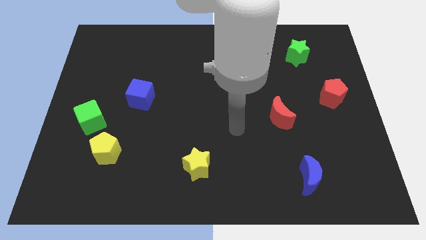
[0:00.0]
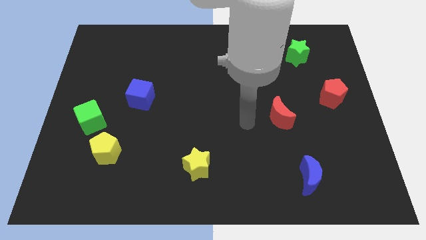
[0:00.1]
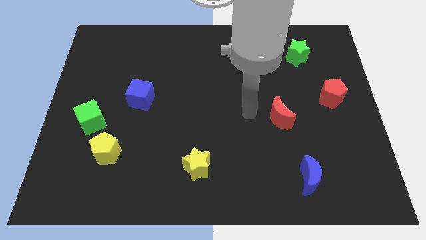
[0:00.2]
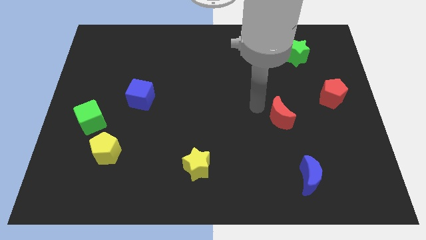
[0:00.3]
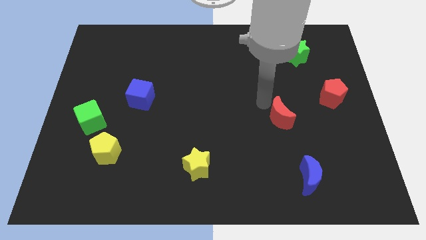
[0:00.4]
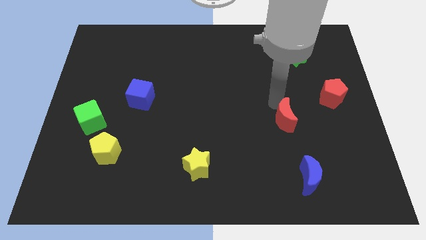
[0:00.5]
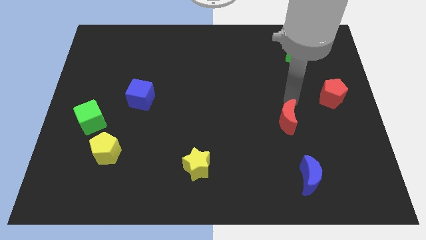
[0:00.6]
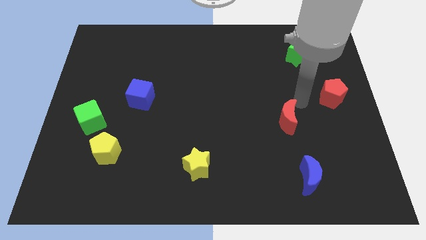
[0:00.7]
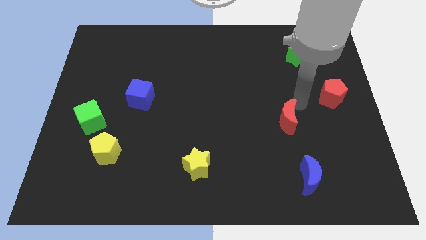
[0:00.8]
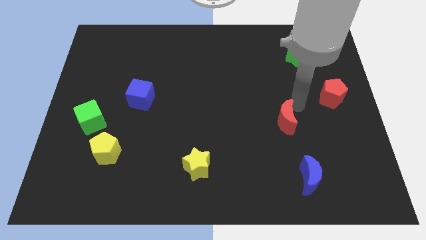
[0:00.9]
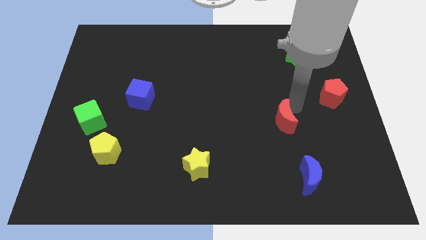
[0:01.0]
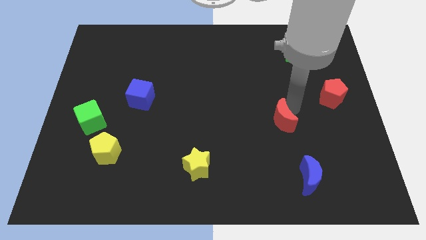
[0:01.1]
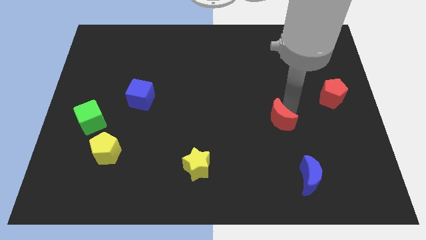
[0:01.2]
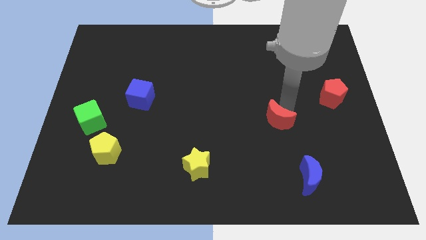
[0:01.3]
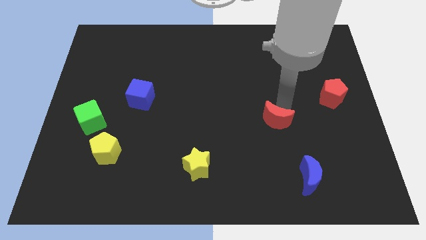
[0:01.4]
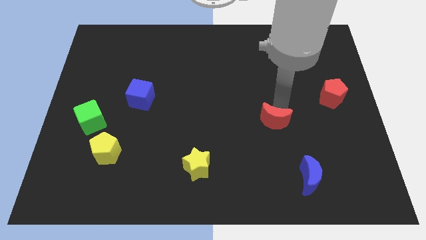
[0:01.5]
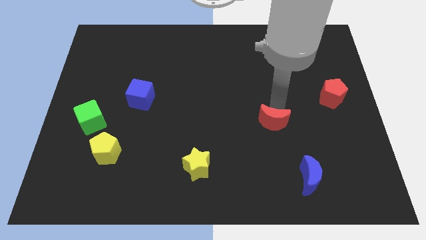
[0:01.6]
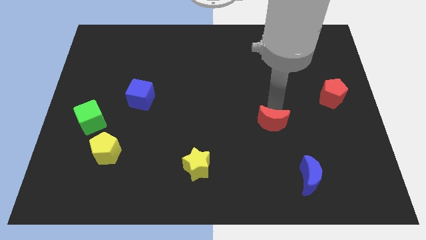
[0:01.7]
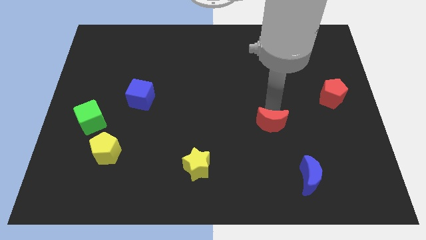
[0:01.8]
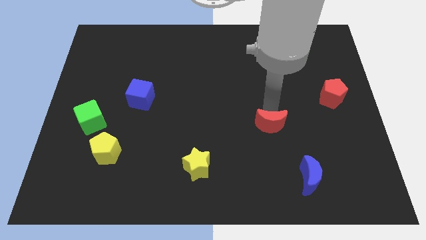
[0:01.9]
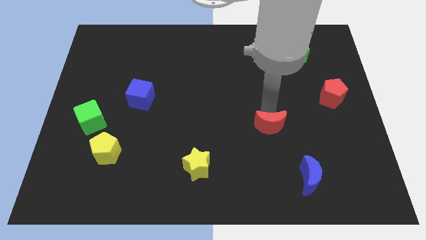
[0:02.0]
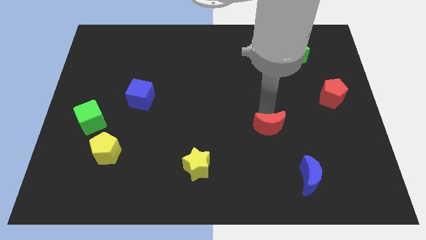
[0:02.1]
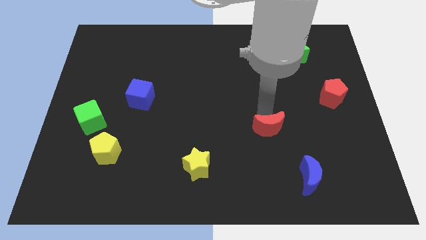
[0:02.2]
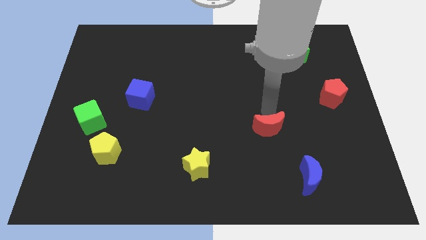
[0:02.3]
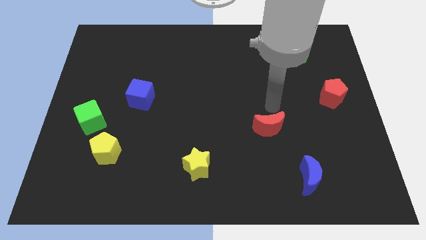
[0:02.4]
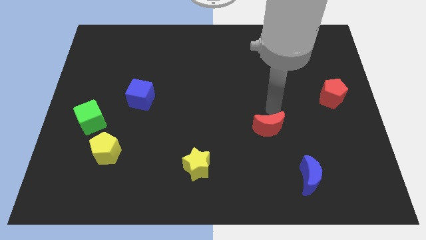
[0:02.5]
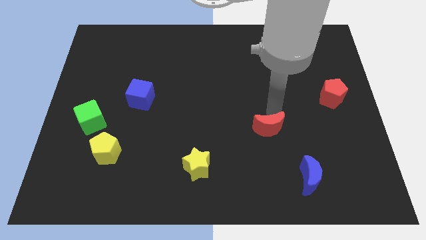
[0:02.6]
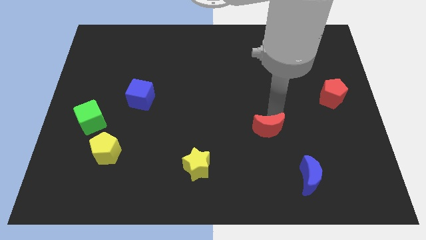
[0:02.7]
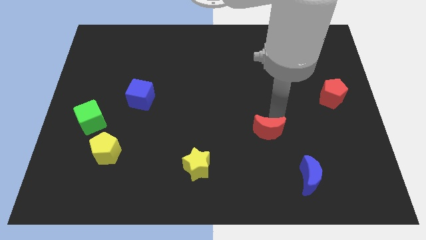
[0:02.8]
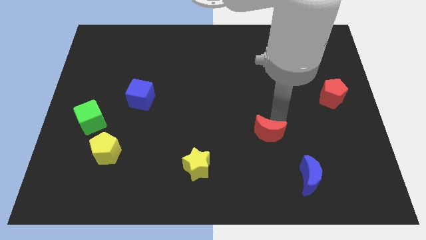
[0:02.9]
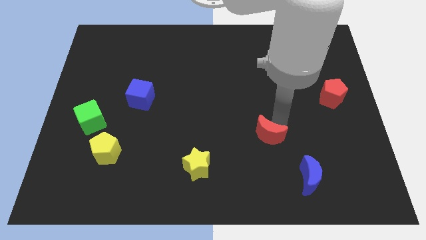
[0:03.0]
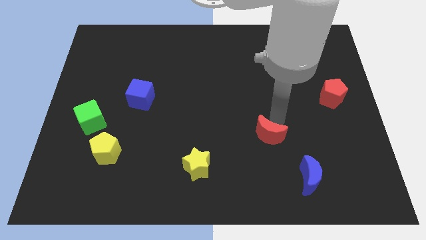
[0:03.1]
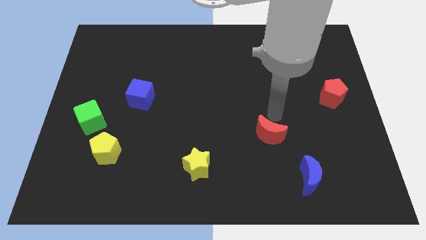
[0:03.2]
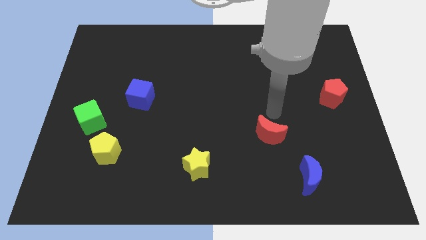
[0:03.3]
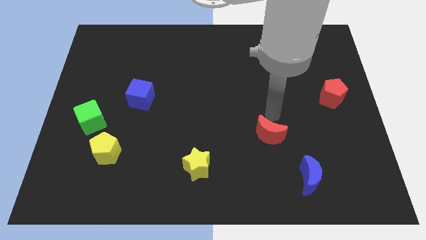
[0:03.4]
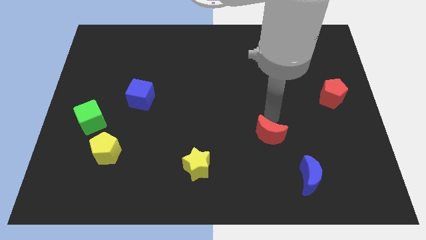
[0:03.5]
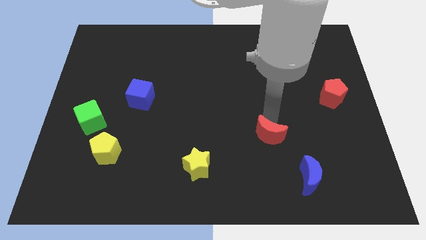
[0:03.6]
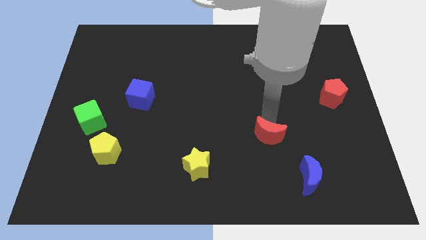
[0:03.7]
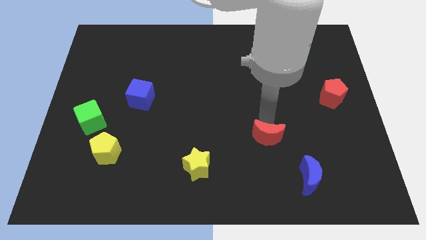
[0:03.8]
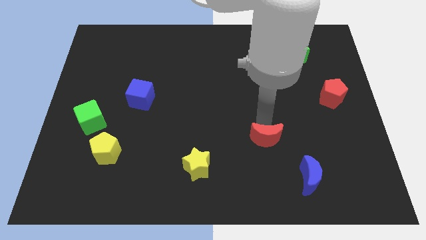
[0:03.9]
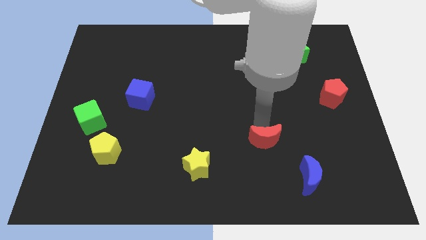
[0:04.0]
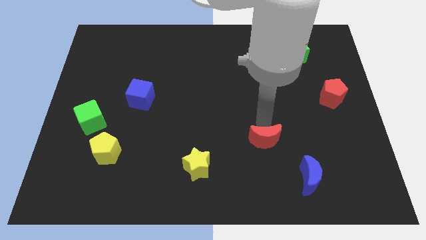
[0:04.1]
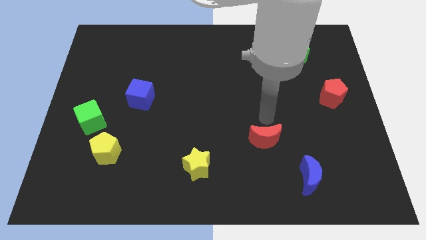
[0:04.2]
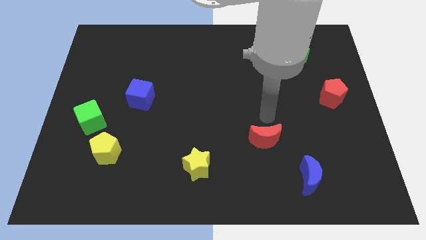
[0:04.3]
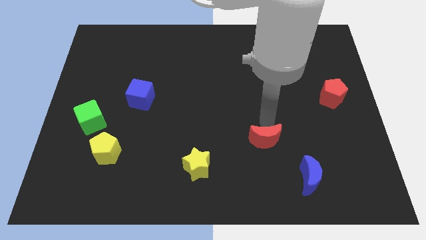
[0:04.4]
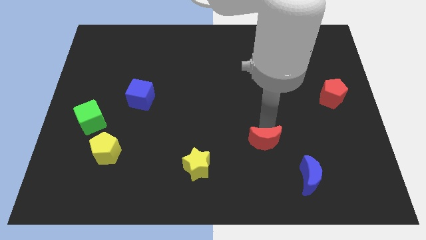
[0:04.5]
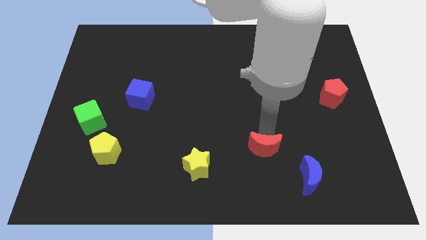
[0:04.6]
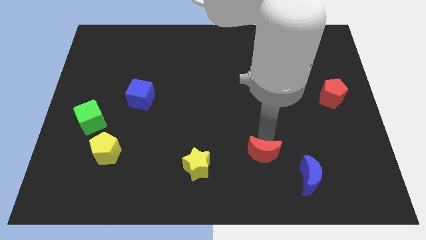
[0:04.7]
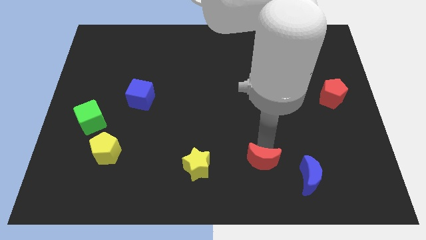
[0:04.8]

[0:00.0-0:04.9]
move the red moon to the left side of the blue moon

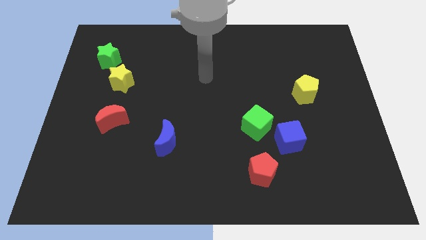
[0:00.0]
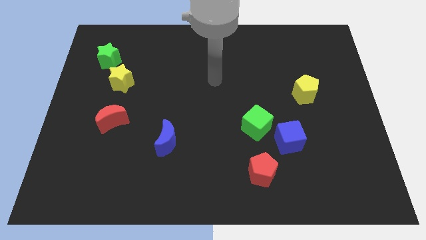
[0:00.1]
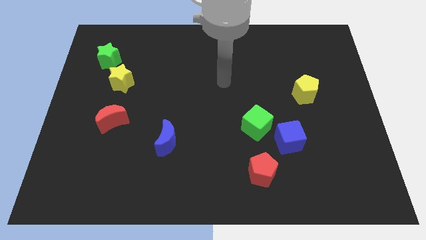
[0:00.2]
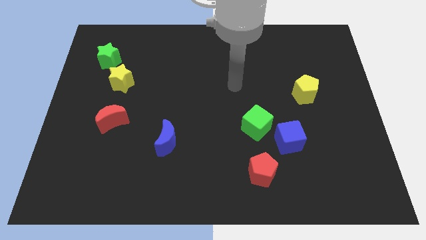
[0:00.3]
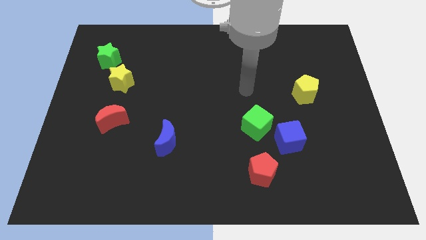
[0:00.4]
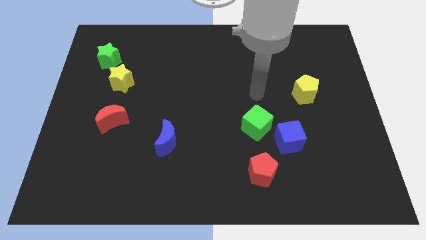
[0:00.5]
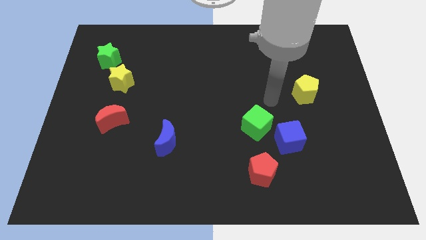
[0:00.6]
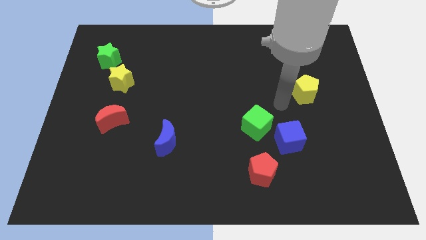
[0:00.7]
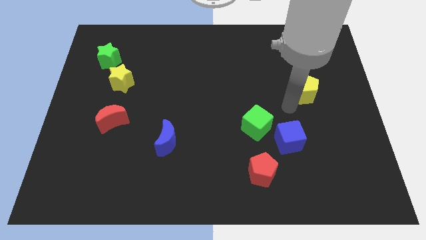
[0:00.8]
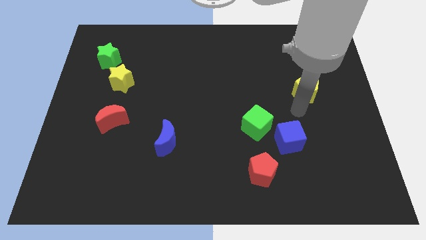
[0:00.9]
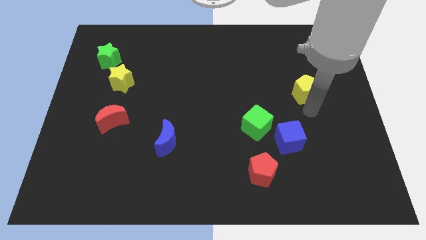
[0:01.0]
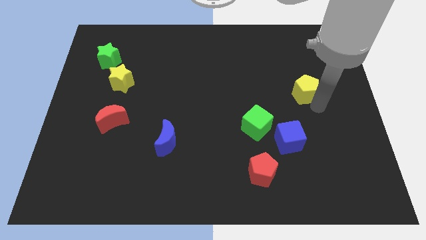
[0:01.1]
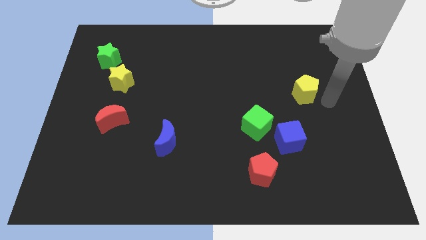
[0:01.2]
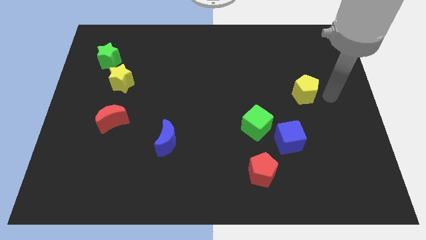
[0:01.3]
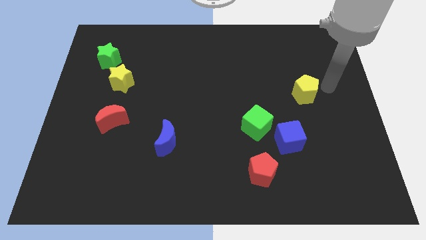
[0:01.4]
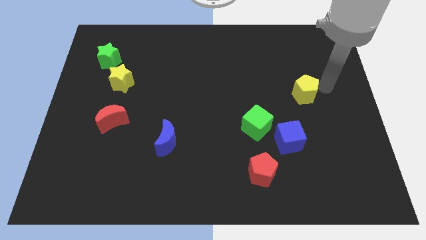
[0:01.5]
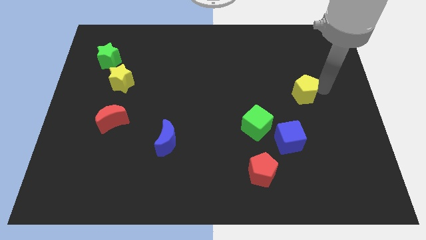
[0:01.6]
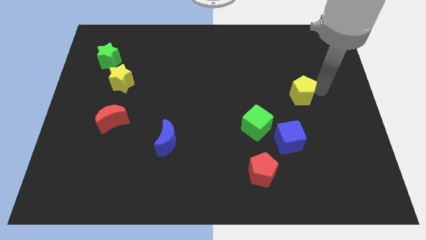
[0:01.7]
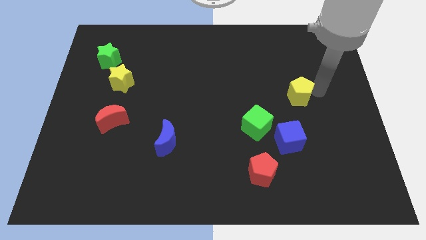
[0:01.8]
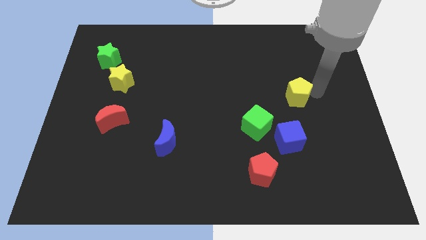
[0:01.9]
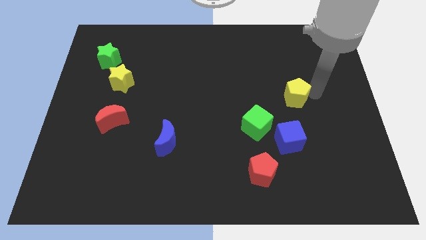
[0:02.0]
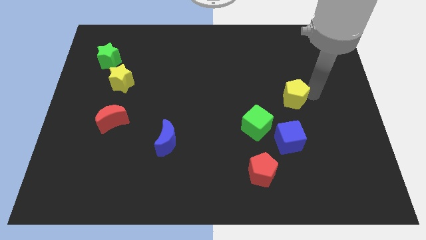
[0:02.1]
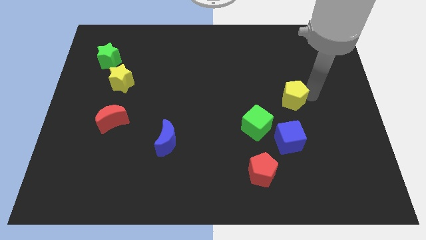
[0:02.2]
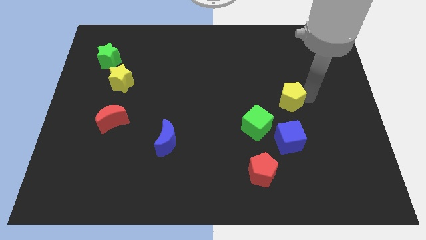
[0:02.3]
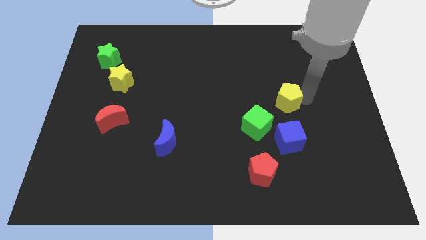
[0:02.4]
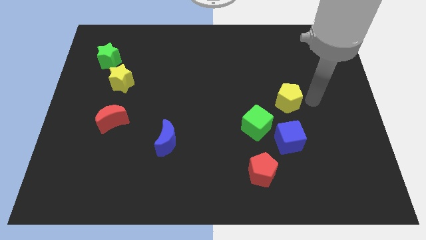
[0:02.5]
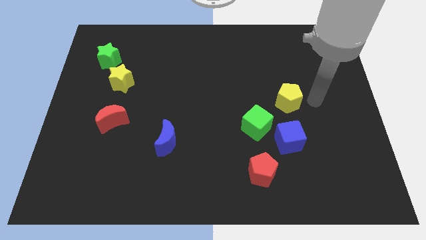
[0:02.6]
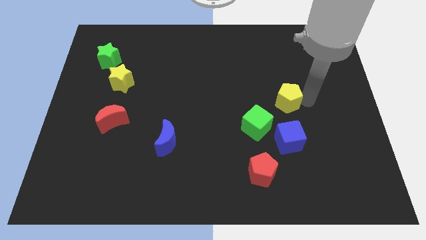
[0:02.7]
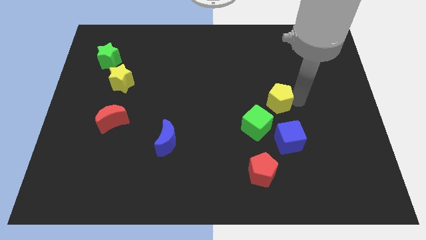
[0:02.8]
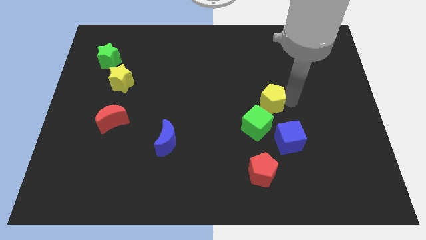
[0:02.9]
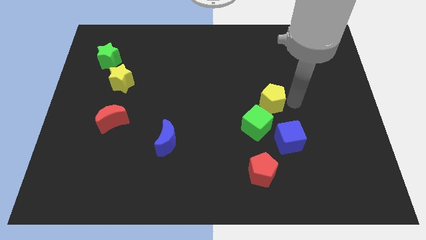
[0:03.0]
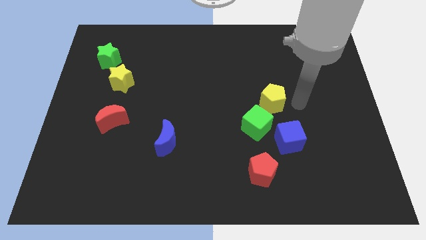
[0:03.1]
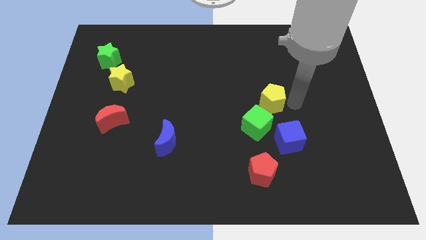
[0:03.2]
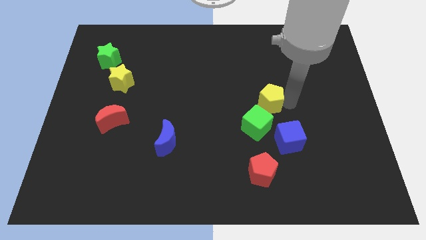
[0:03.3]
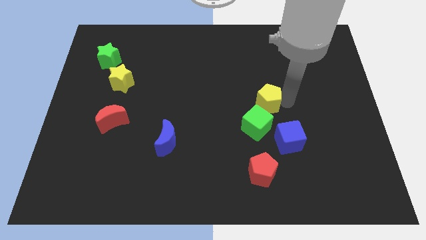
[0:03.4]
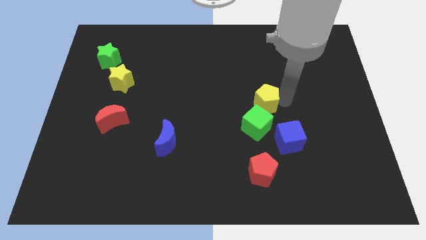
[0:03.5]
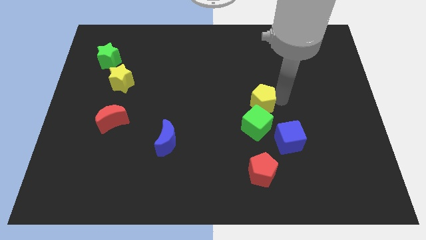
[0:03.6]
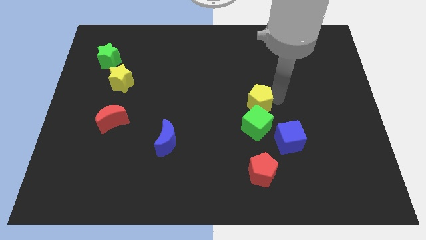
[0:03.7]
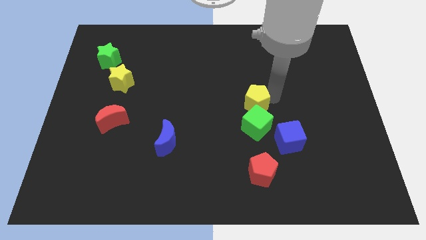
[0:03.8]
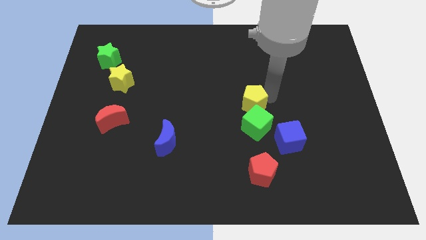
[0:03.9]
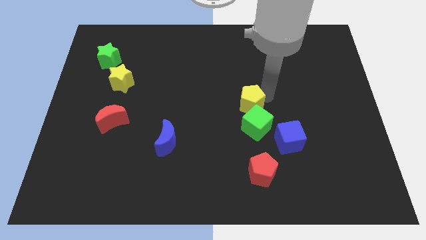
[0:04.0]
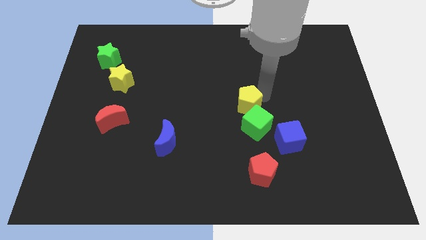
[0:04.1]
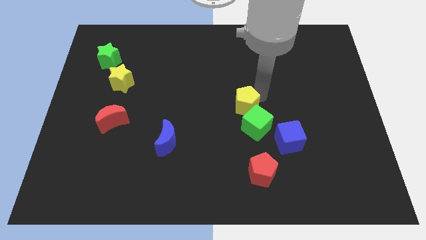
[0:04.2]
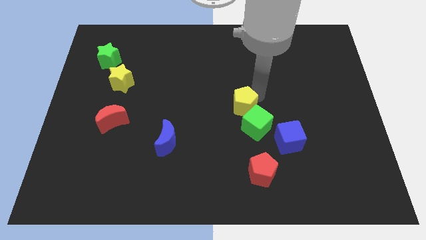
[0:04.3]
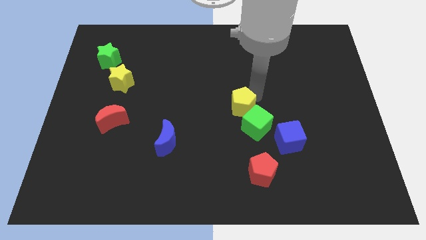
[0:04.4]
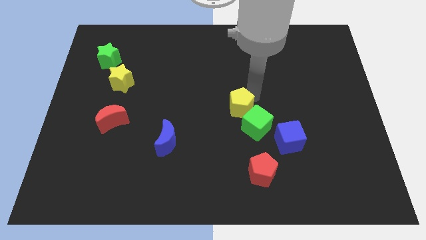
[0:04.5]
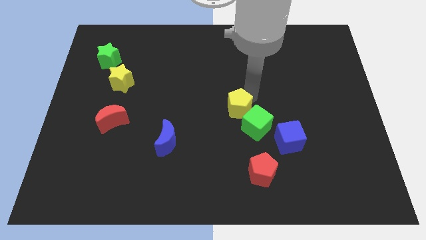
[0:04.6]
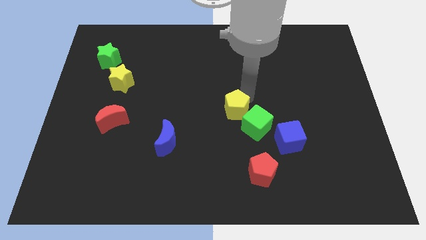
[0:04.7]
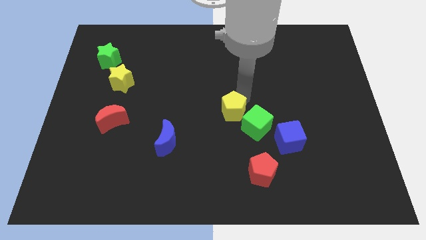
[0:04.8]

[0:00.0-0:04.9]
move the yellow pentagon to the left of the green cube
